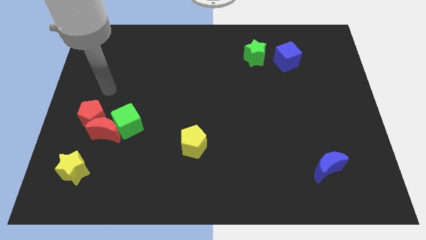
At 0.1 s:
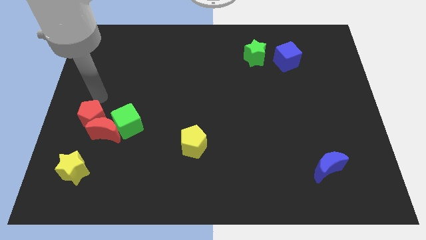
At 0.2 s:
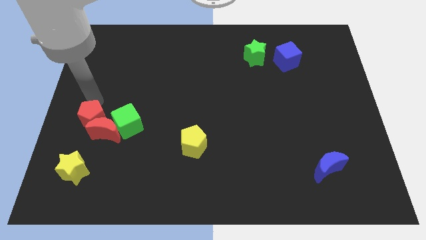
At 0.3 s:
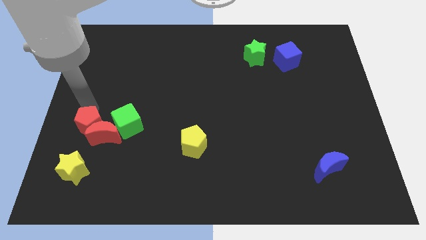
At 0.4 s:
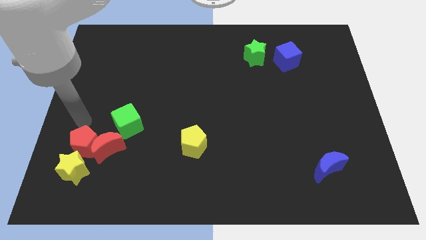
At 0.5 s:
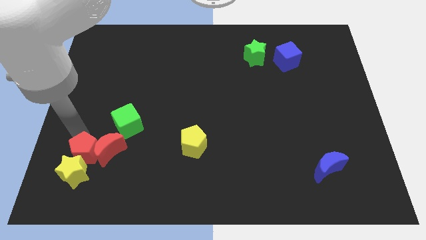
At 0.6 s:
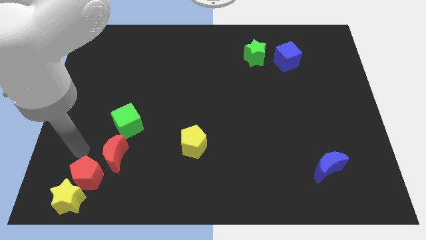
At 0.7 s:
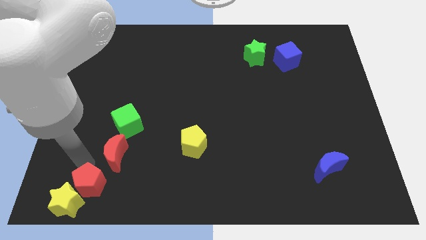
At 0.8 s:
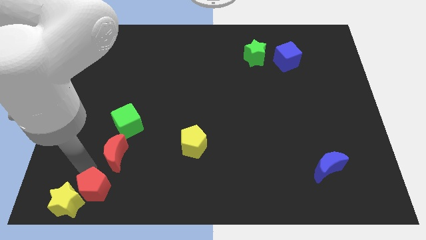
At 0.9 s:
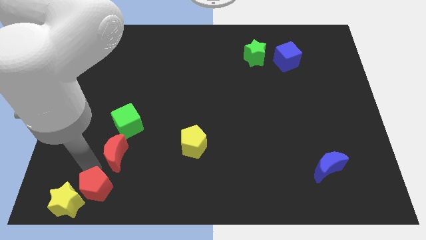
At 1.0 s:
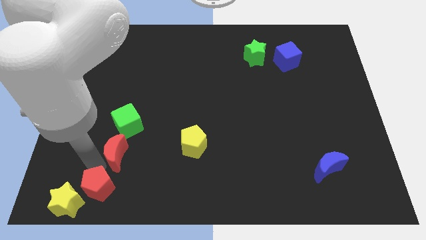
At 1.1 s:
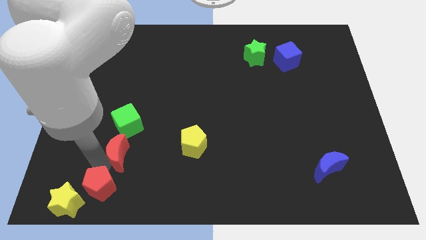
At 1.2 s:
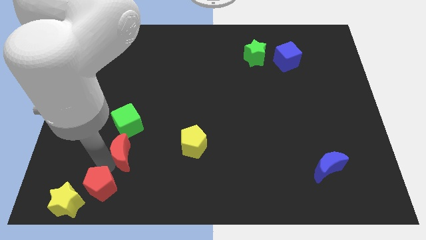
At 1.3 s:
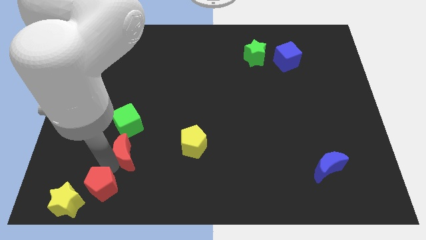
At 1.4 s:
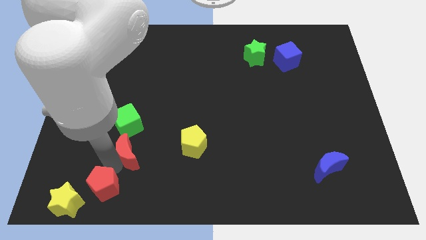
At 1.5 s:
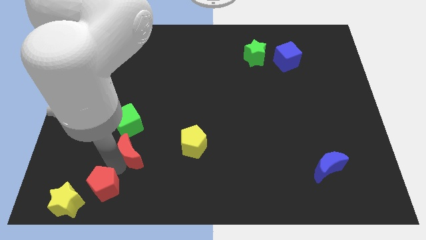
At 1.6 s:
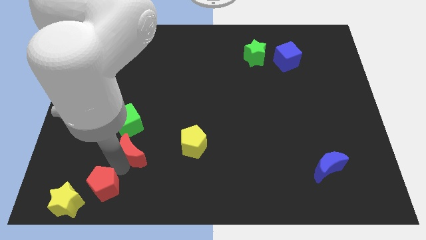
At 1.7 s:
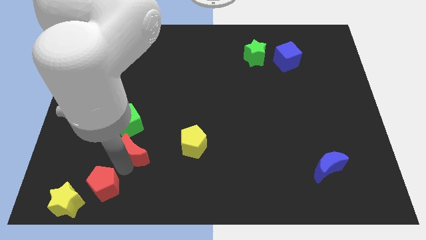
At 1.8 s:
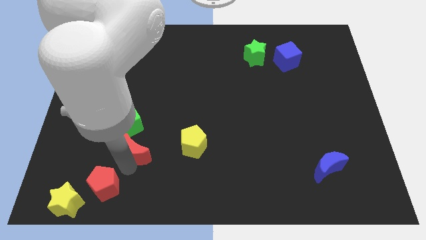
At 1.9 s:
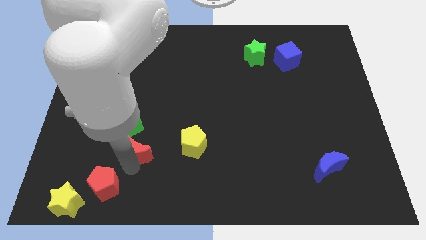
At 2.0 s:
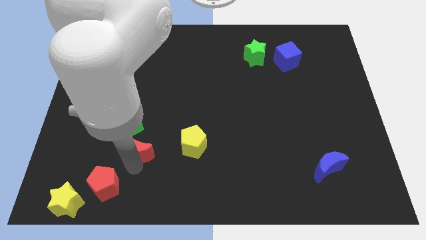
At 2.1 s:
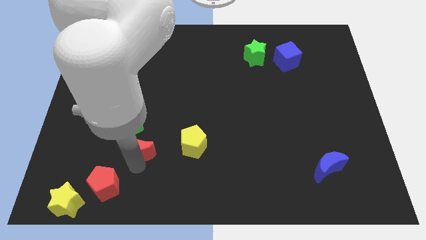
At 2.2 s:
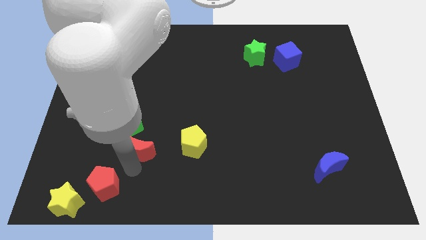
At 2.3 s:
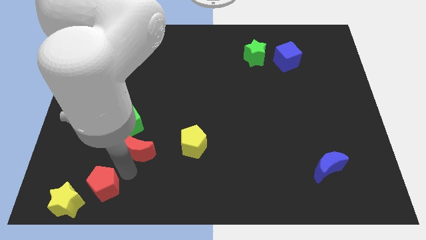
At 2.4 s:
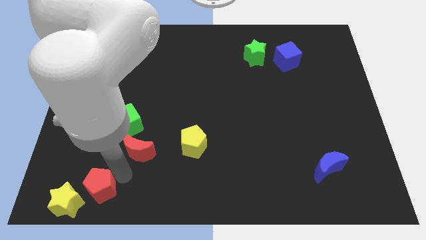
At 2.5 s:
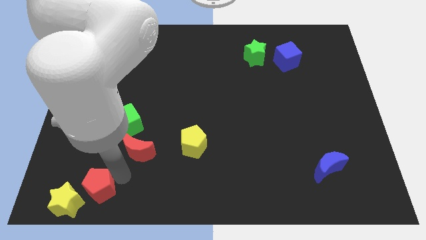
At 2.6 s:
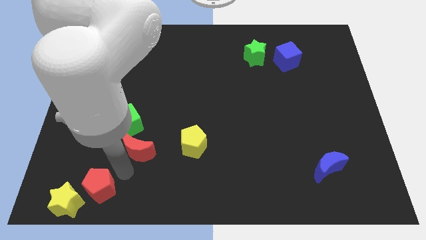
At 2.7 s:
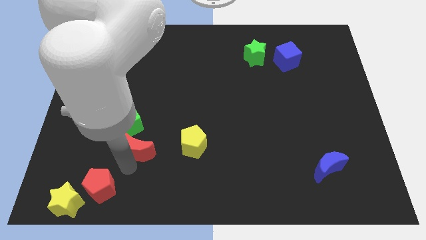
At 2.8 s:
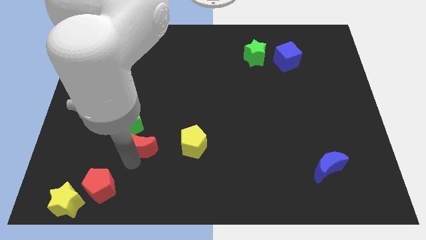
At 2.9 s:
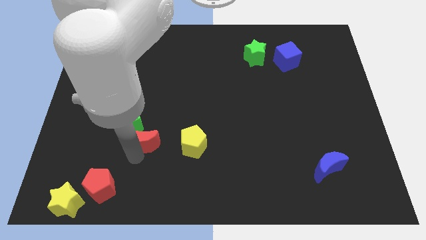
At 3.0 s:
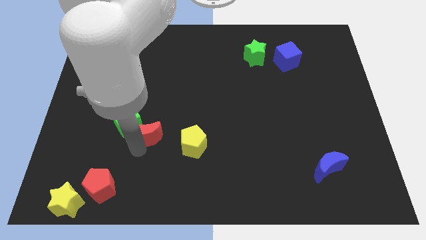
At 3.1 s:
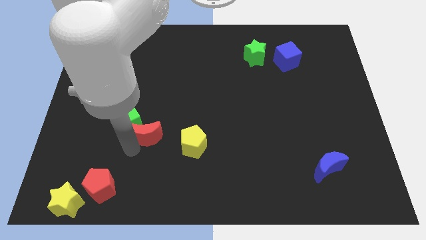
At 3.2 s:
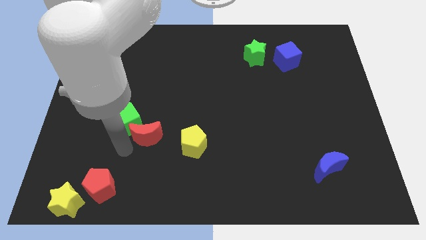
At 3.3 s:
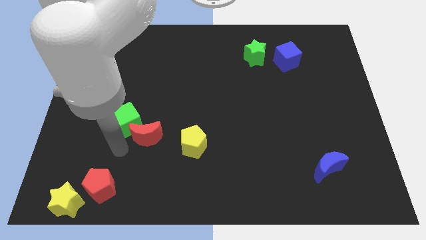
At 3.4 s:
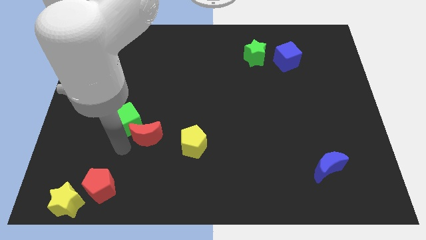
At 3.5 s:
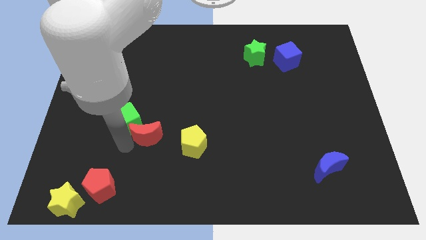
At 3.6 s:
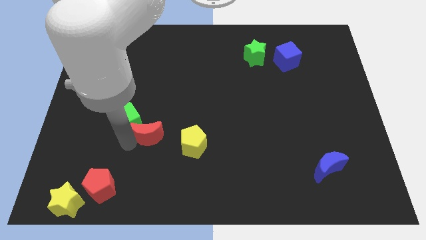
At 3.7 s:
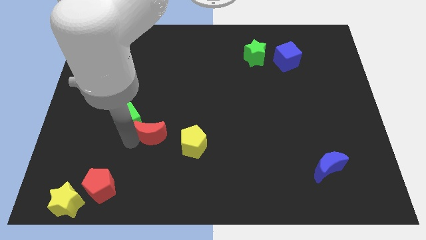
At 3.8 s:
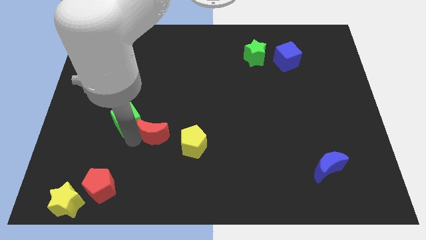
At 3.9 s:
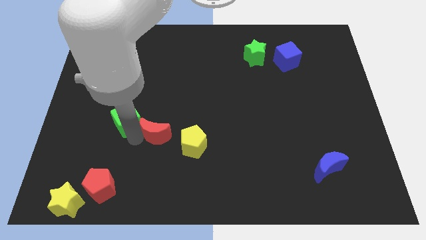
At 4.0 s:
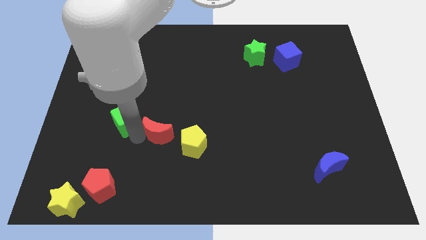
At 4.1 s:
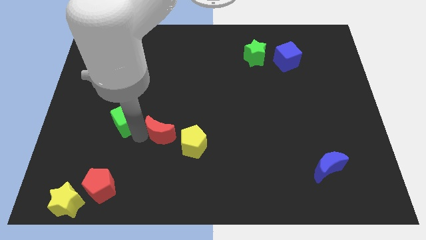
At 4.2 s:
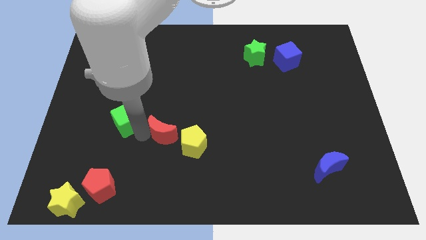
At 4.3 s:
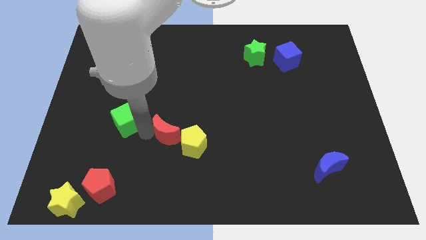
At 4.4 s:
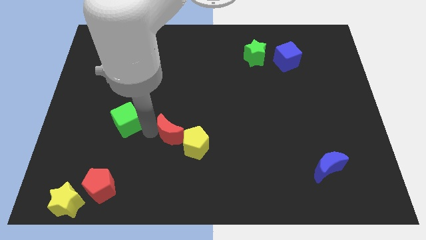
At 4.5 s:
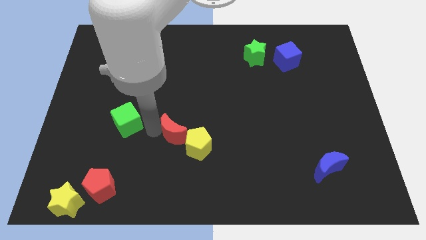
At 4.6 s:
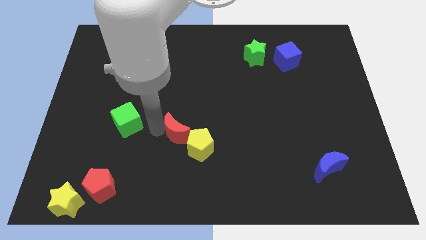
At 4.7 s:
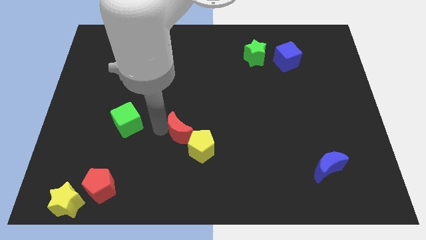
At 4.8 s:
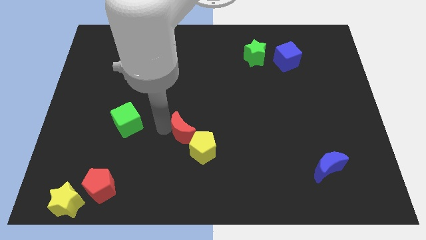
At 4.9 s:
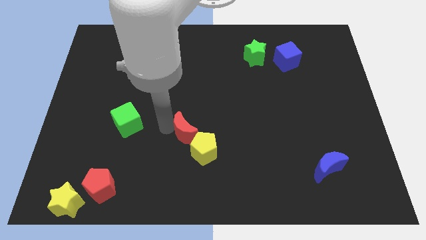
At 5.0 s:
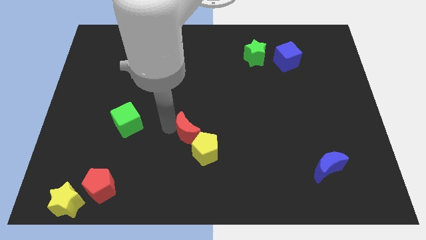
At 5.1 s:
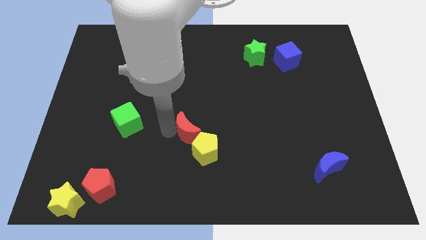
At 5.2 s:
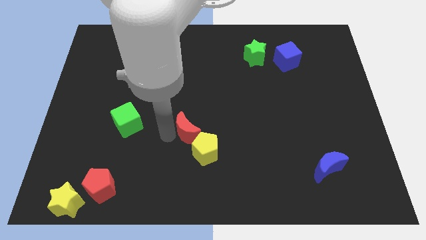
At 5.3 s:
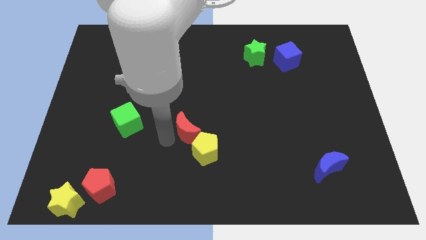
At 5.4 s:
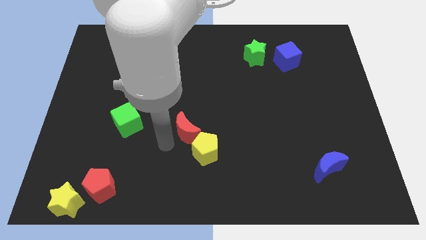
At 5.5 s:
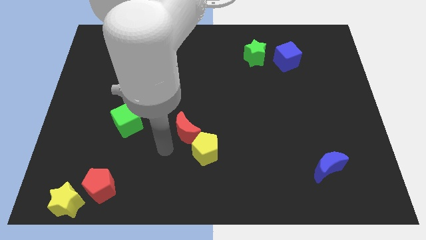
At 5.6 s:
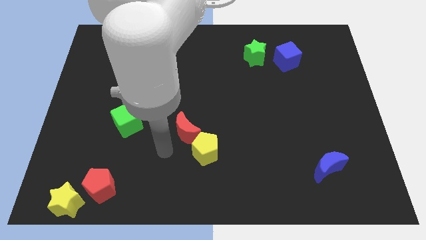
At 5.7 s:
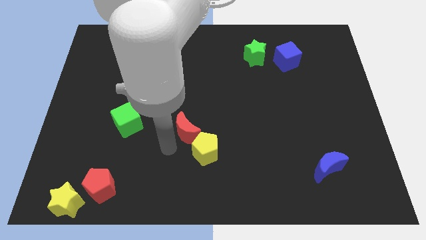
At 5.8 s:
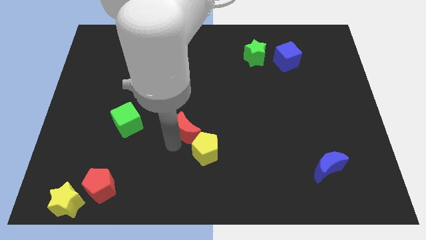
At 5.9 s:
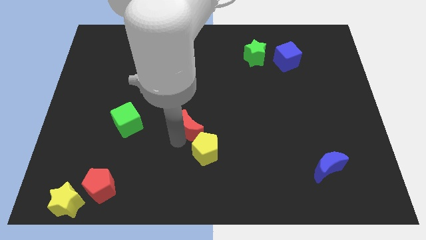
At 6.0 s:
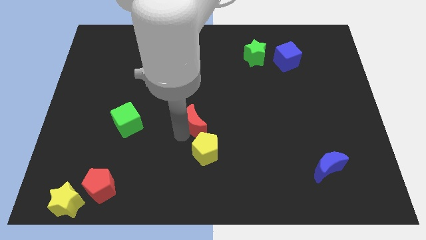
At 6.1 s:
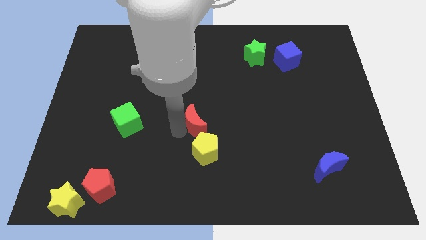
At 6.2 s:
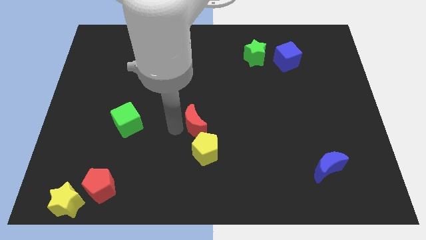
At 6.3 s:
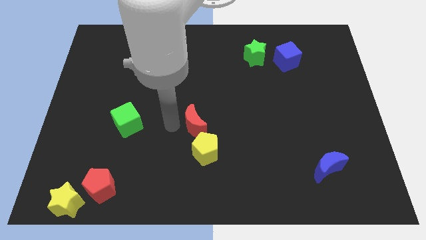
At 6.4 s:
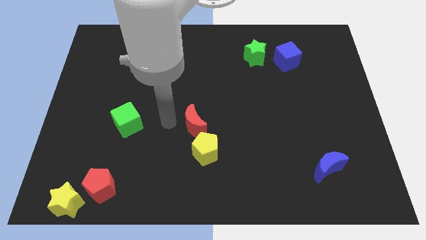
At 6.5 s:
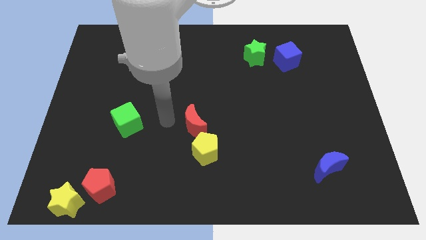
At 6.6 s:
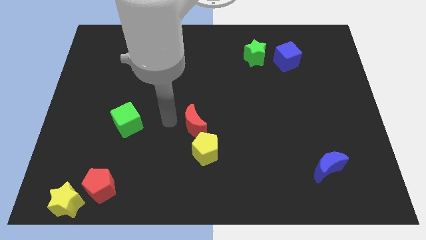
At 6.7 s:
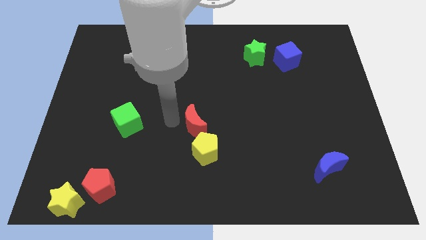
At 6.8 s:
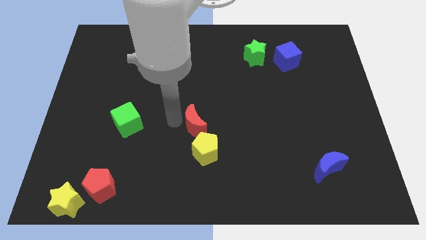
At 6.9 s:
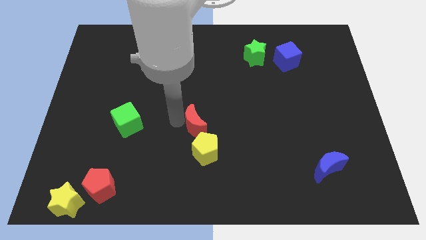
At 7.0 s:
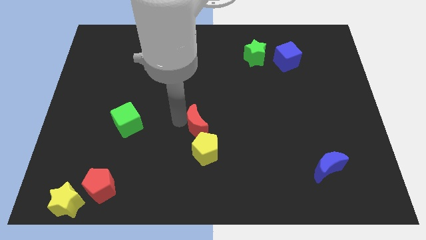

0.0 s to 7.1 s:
move the red moon to the right

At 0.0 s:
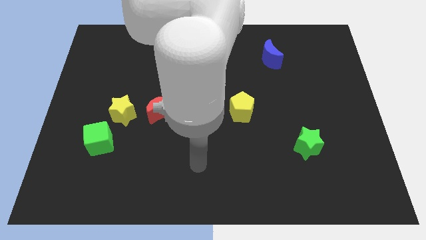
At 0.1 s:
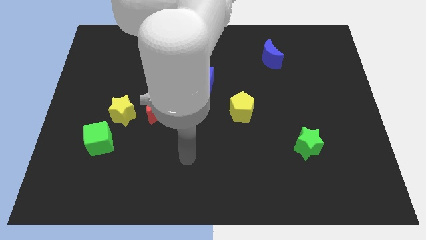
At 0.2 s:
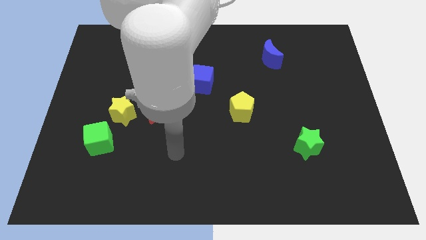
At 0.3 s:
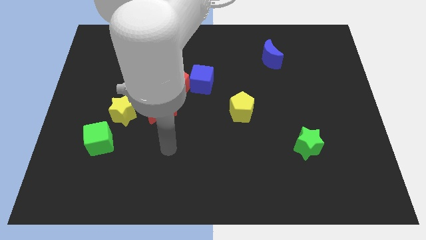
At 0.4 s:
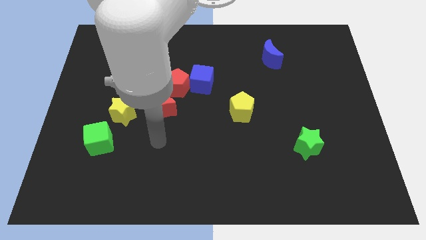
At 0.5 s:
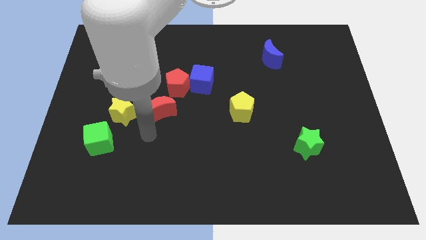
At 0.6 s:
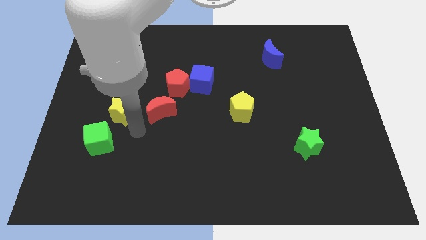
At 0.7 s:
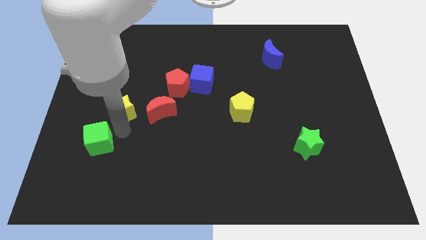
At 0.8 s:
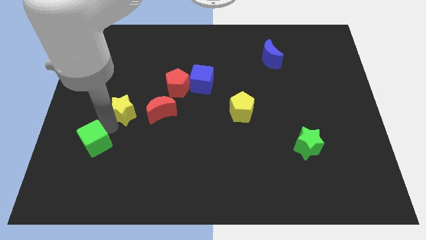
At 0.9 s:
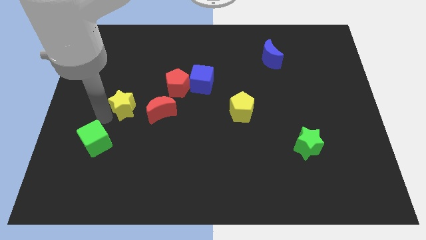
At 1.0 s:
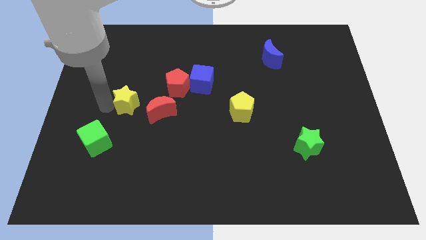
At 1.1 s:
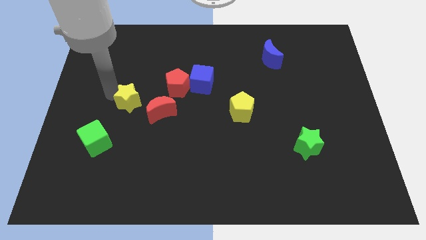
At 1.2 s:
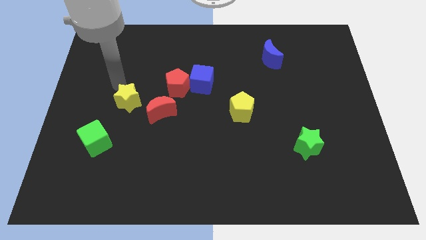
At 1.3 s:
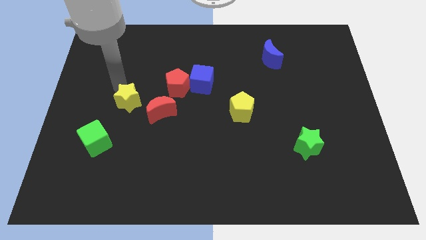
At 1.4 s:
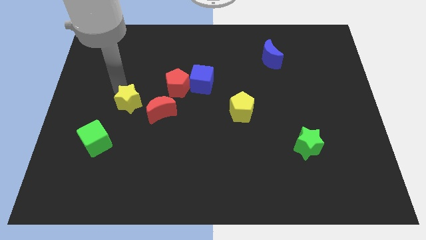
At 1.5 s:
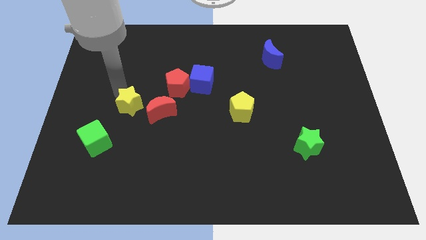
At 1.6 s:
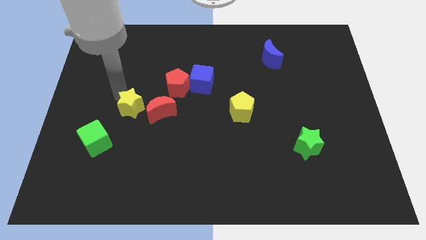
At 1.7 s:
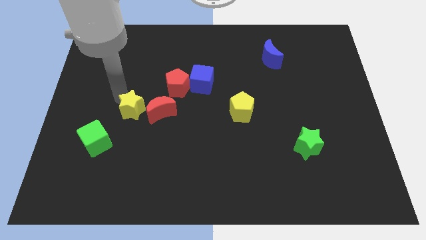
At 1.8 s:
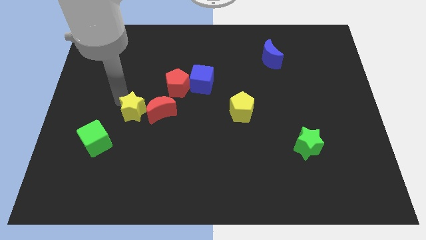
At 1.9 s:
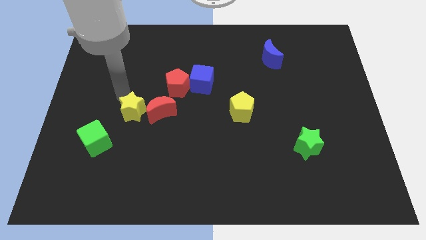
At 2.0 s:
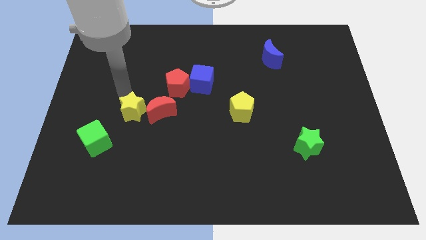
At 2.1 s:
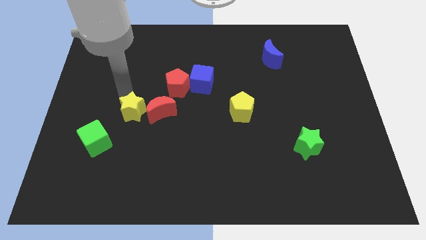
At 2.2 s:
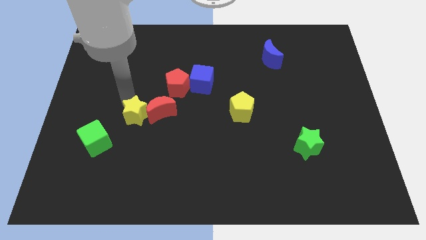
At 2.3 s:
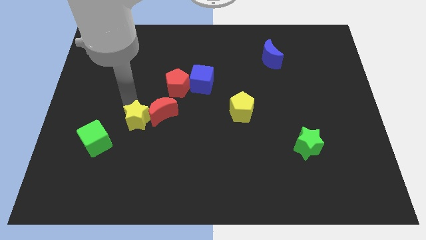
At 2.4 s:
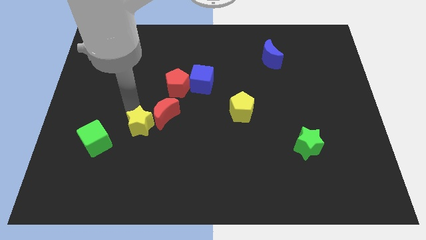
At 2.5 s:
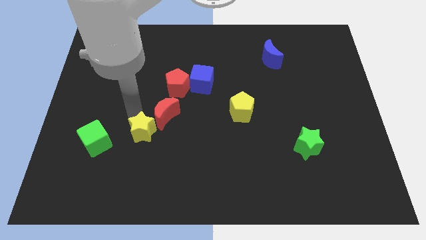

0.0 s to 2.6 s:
slightly slide the yellow star downwards and then right
